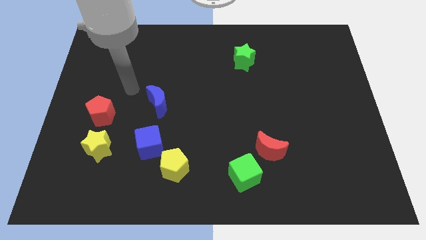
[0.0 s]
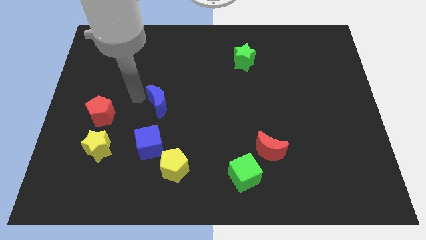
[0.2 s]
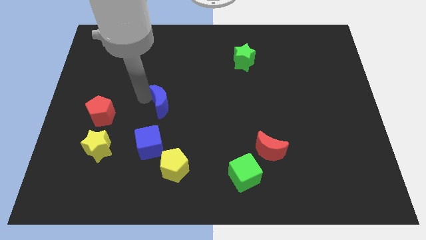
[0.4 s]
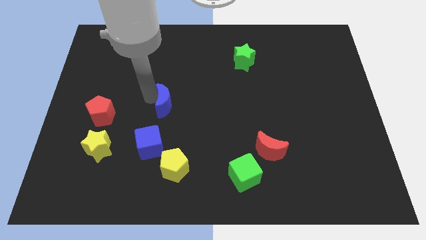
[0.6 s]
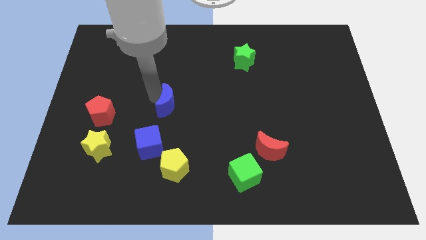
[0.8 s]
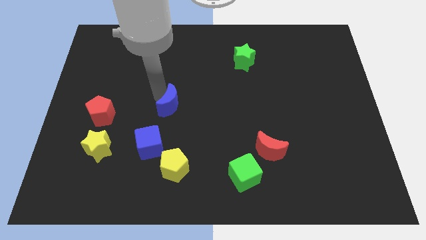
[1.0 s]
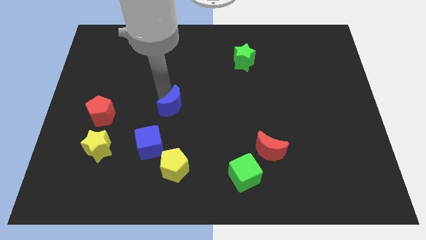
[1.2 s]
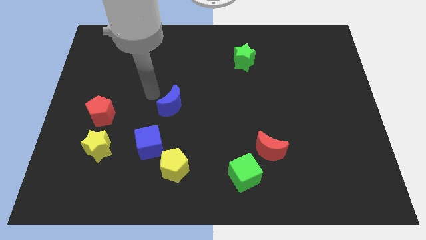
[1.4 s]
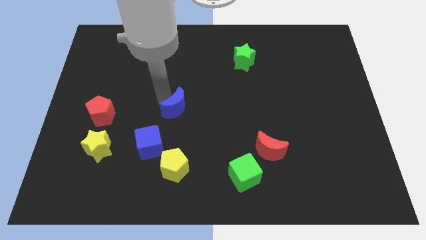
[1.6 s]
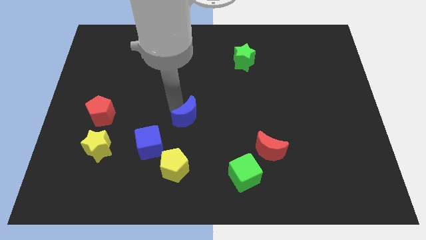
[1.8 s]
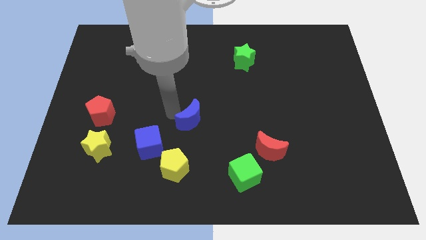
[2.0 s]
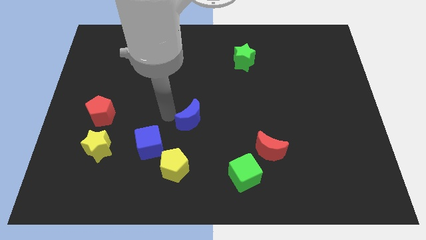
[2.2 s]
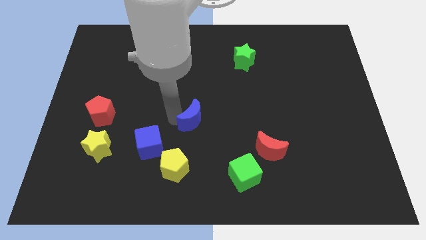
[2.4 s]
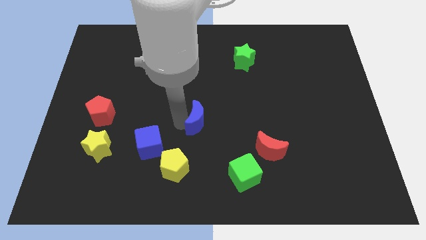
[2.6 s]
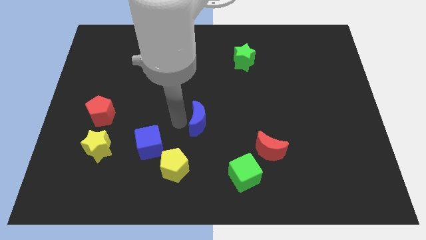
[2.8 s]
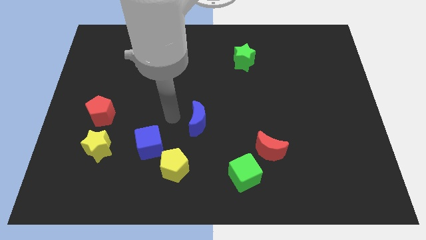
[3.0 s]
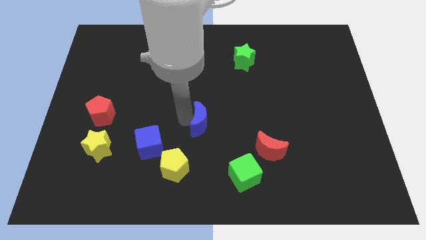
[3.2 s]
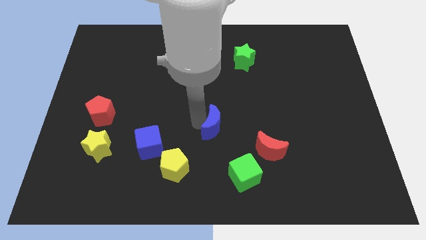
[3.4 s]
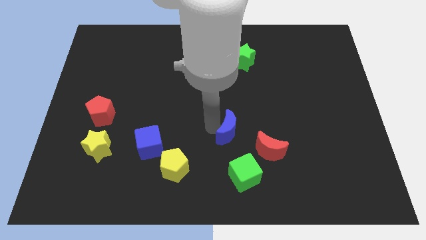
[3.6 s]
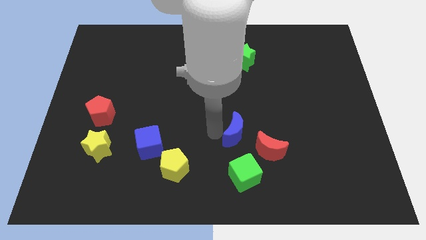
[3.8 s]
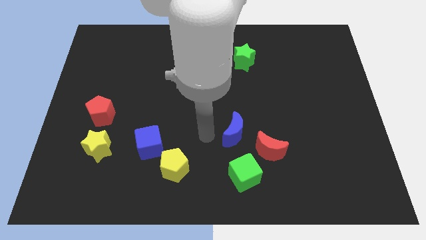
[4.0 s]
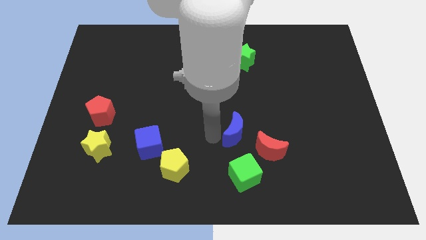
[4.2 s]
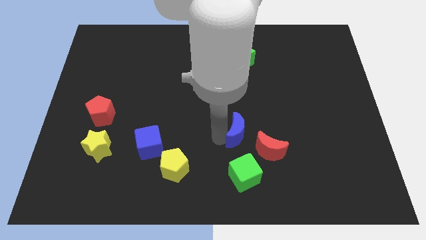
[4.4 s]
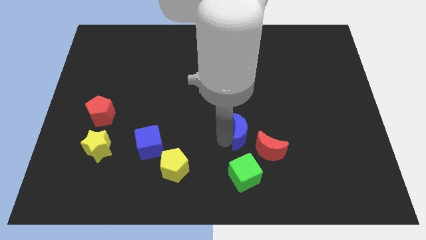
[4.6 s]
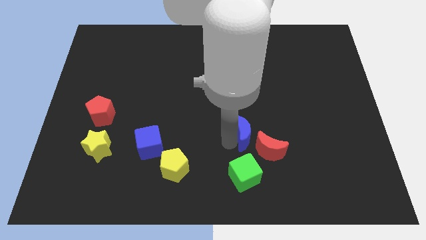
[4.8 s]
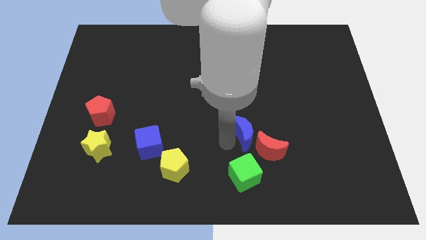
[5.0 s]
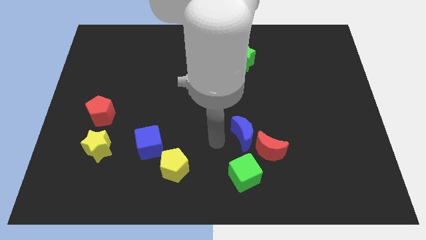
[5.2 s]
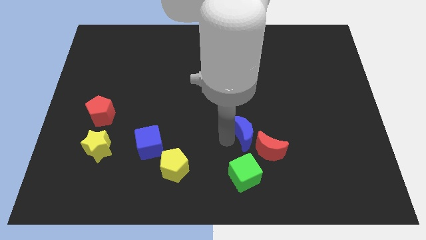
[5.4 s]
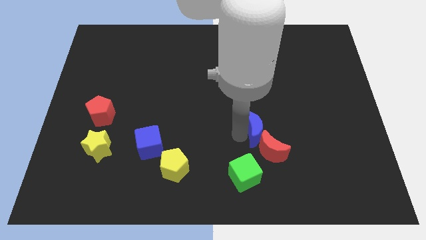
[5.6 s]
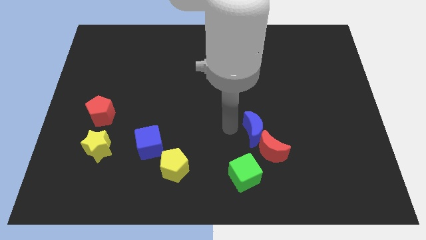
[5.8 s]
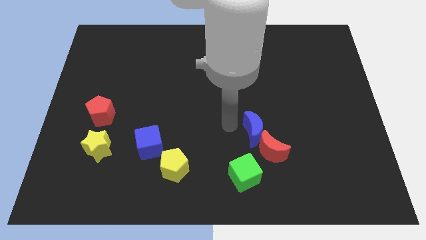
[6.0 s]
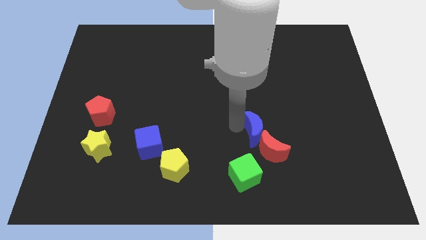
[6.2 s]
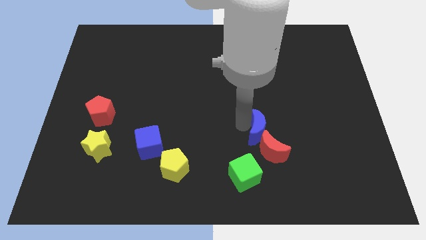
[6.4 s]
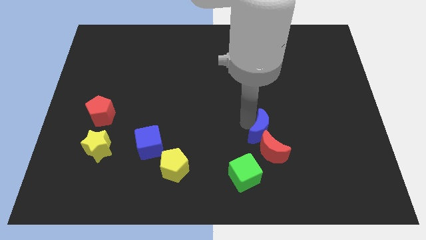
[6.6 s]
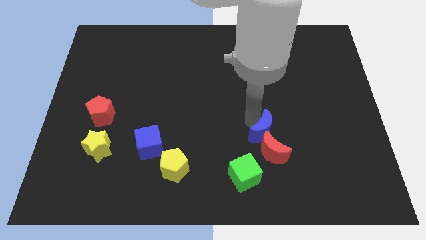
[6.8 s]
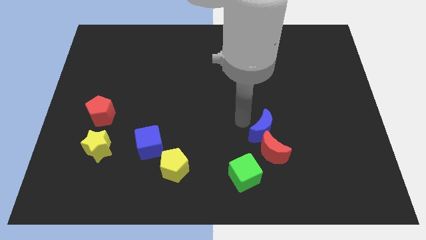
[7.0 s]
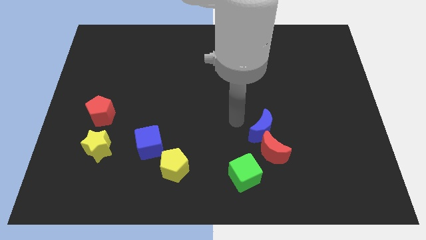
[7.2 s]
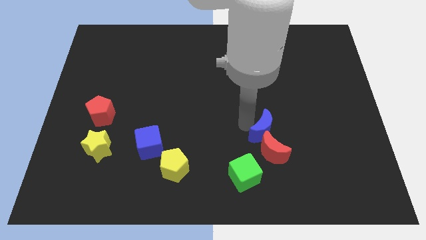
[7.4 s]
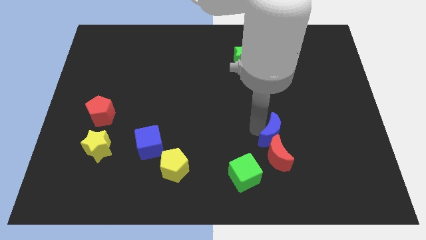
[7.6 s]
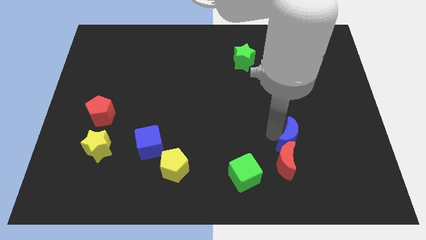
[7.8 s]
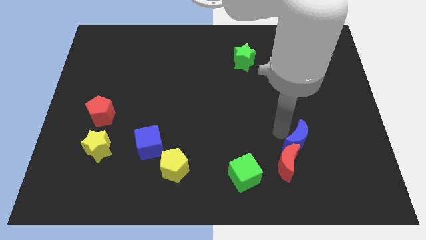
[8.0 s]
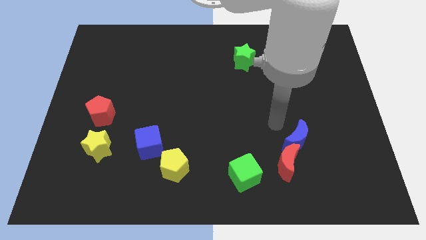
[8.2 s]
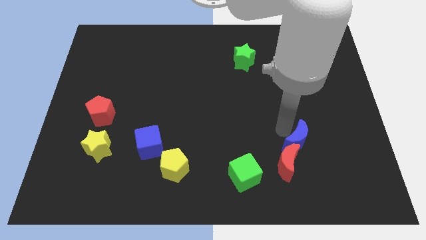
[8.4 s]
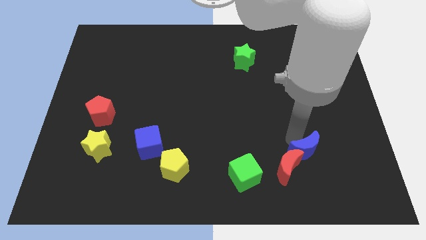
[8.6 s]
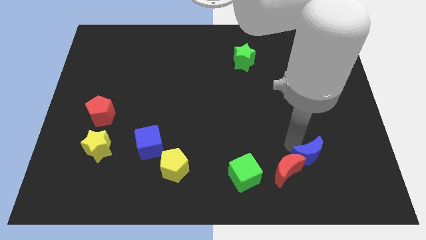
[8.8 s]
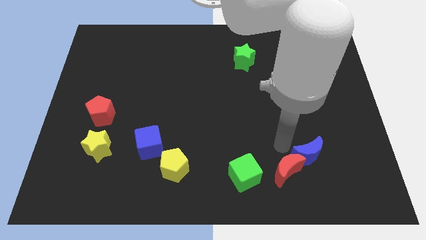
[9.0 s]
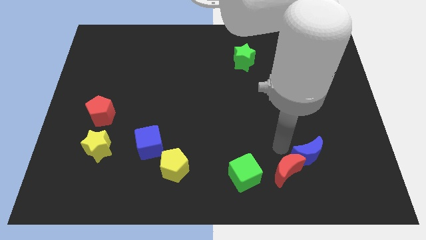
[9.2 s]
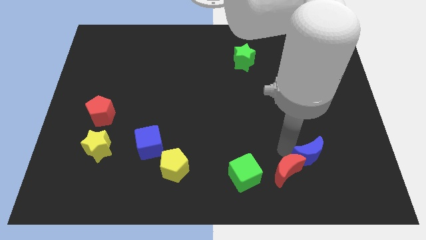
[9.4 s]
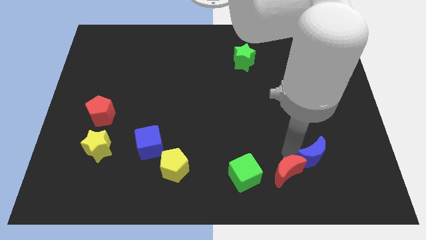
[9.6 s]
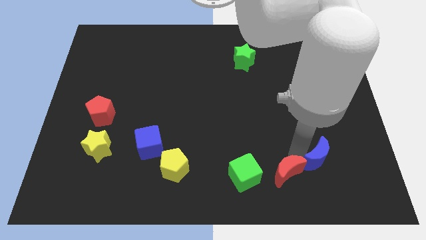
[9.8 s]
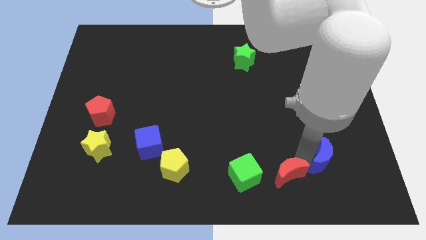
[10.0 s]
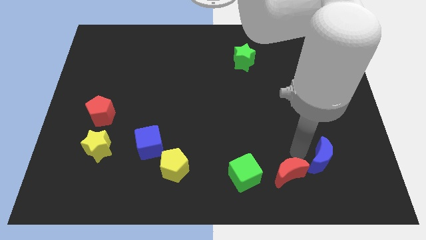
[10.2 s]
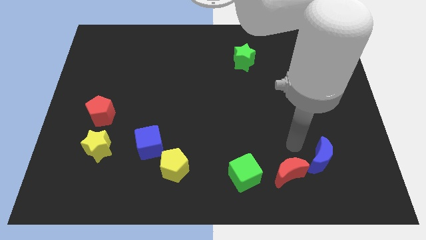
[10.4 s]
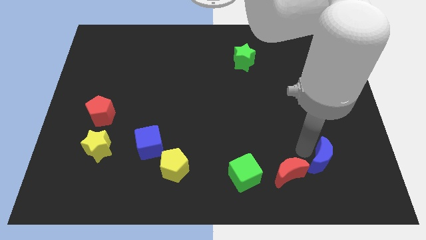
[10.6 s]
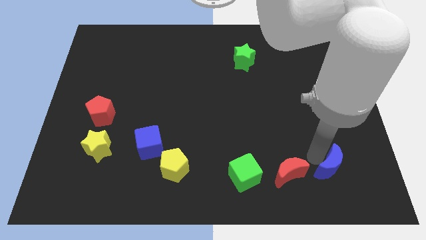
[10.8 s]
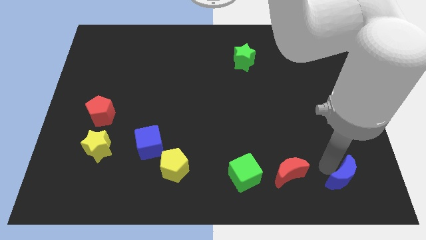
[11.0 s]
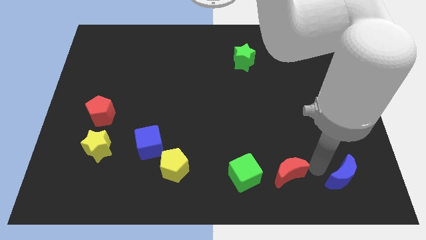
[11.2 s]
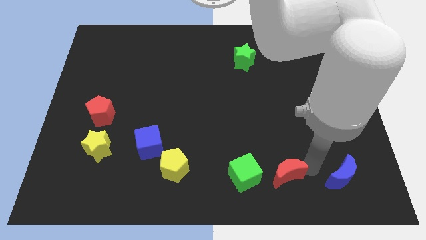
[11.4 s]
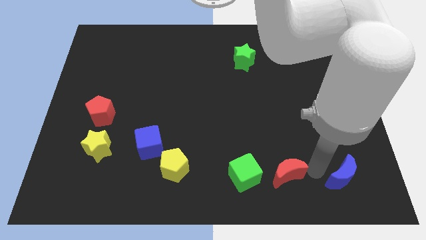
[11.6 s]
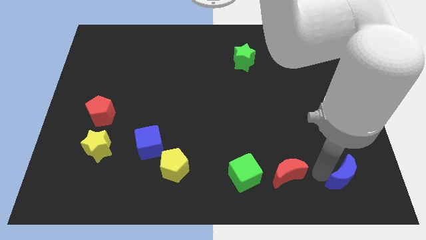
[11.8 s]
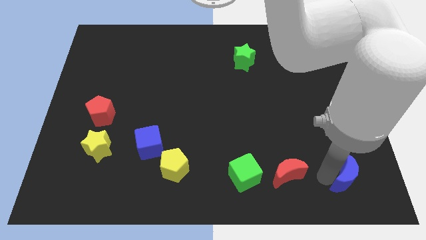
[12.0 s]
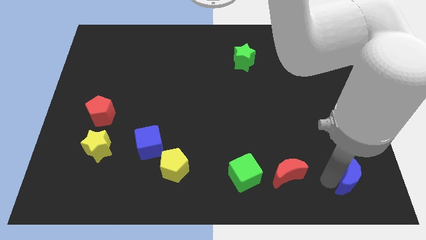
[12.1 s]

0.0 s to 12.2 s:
slide the blue moon to the bottom right corner

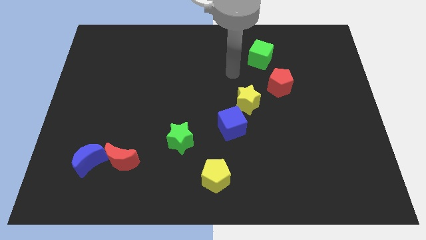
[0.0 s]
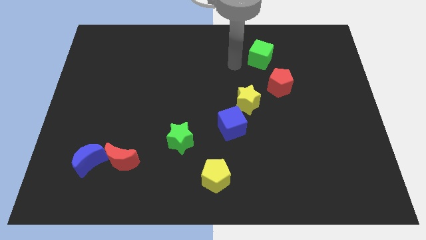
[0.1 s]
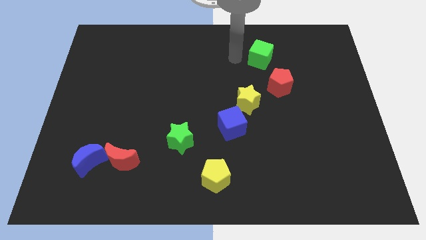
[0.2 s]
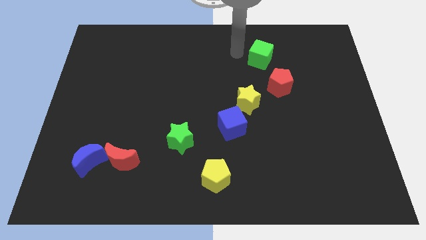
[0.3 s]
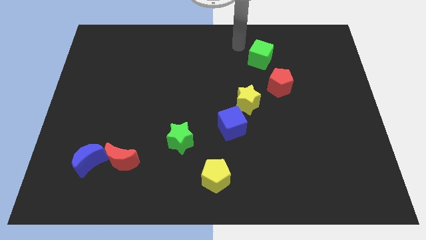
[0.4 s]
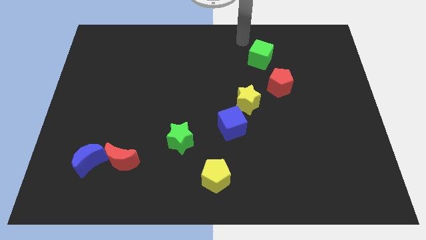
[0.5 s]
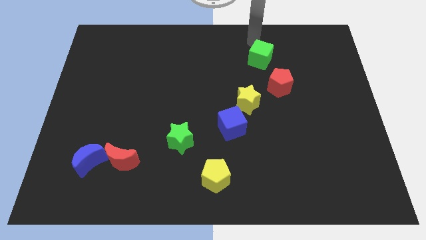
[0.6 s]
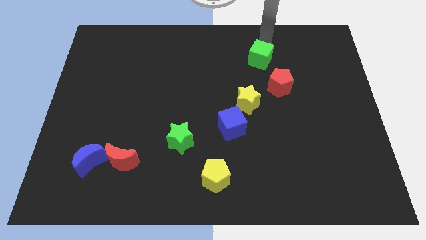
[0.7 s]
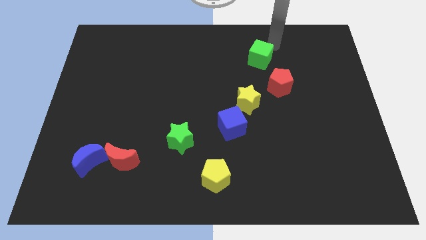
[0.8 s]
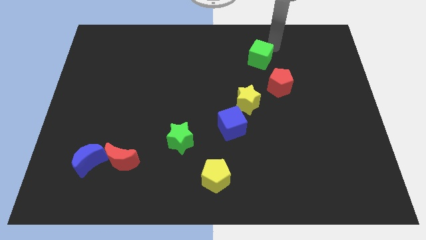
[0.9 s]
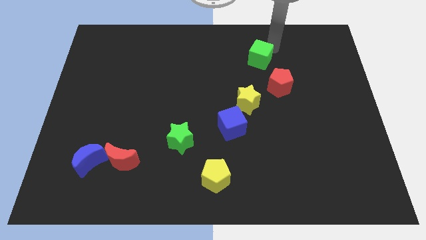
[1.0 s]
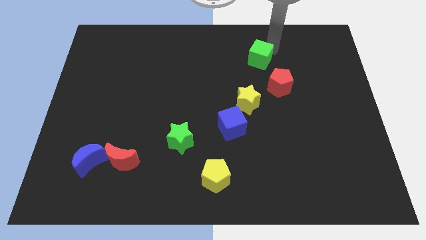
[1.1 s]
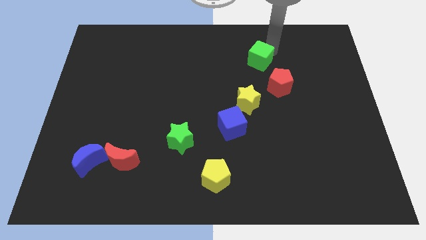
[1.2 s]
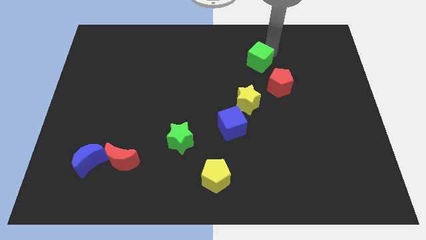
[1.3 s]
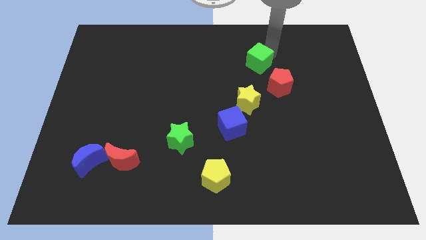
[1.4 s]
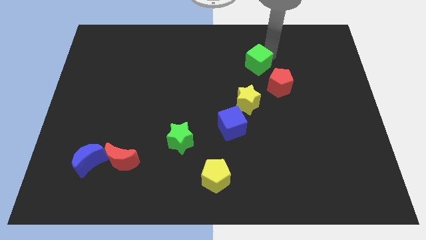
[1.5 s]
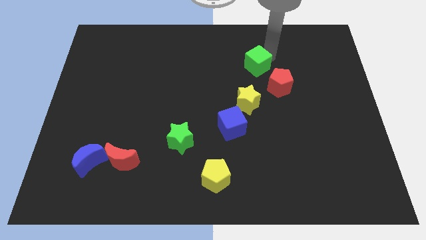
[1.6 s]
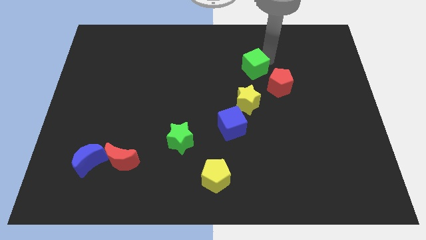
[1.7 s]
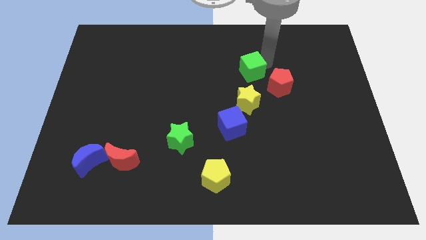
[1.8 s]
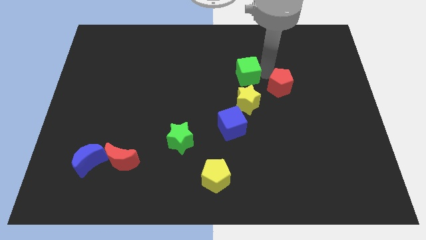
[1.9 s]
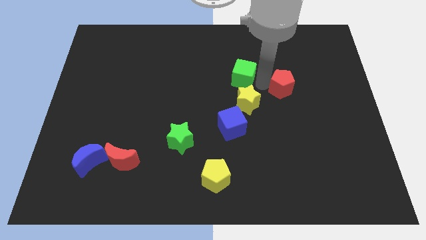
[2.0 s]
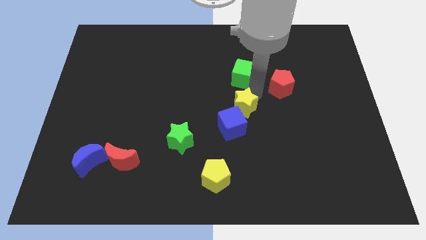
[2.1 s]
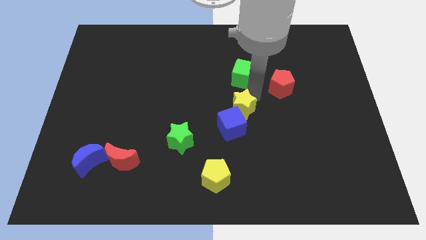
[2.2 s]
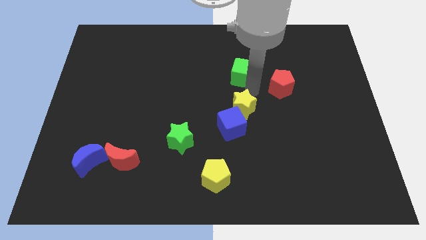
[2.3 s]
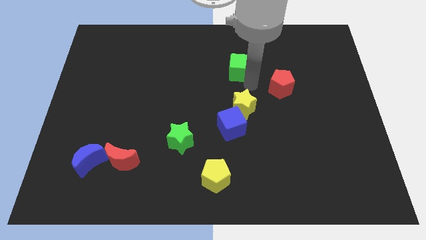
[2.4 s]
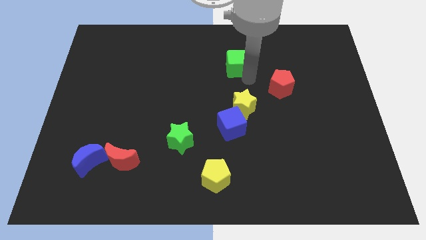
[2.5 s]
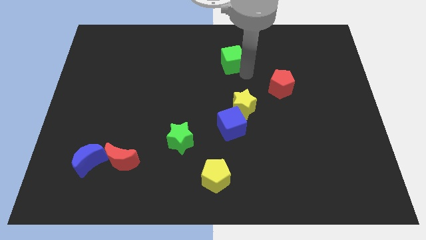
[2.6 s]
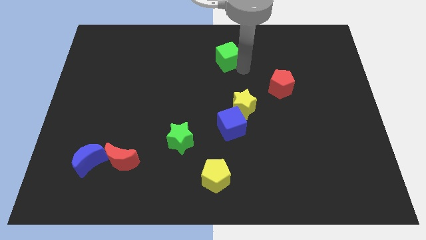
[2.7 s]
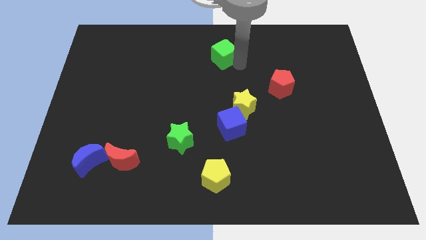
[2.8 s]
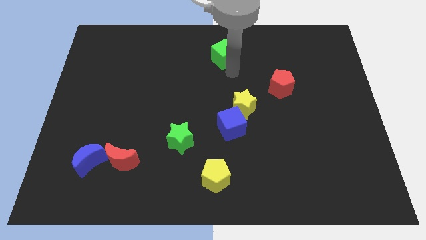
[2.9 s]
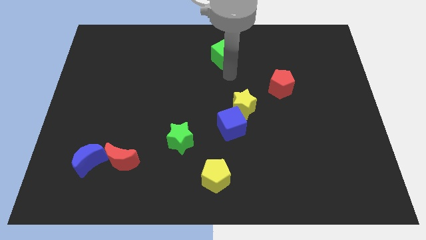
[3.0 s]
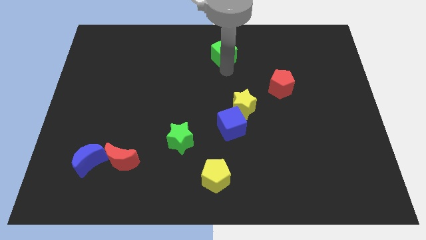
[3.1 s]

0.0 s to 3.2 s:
put the green cube to the towards your base
